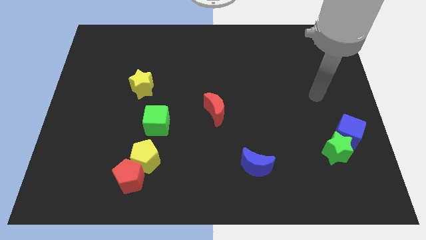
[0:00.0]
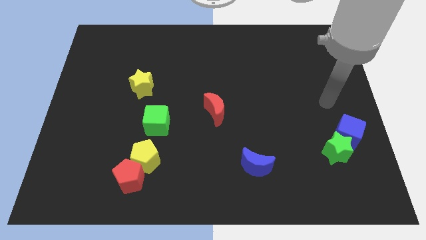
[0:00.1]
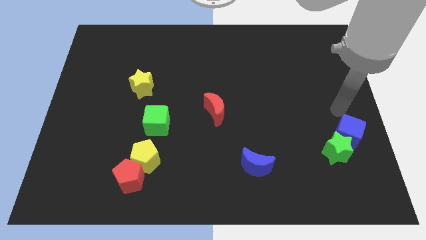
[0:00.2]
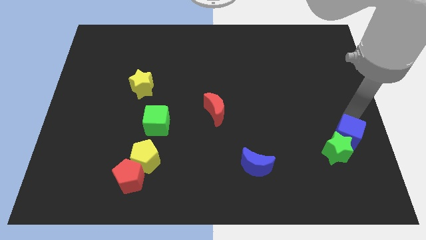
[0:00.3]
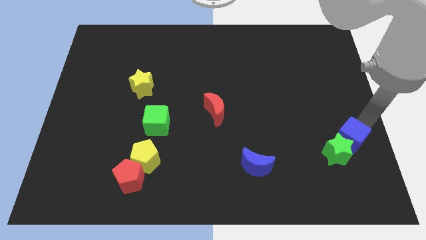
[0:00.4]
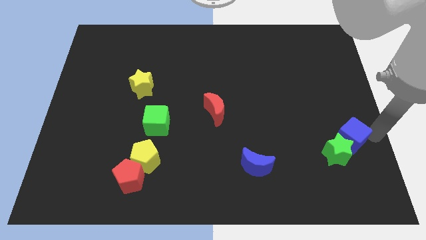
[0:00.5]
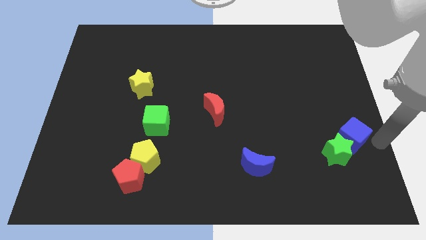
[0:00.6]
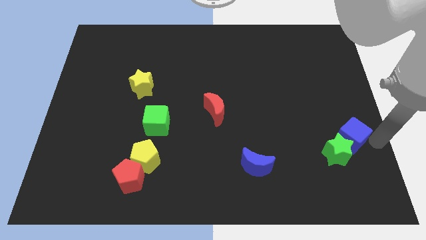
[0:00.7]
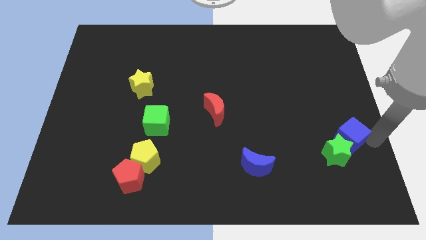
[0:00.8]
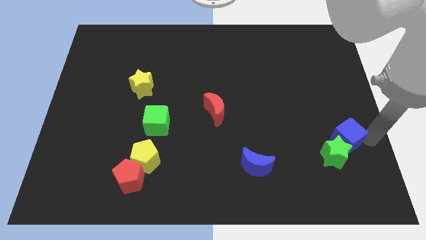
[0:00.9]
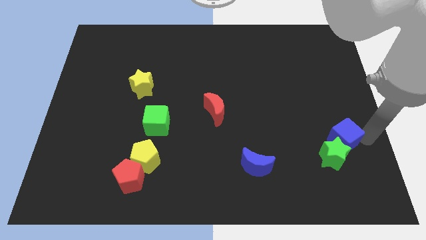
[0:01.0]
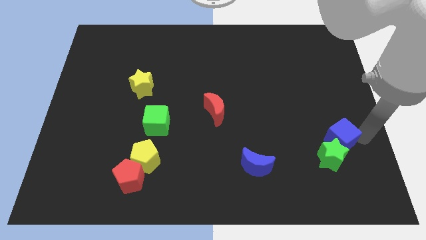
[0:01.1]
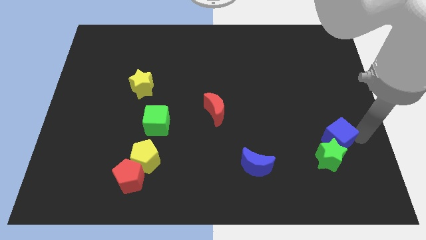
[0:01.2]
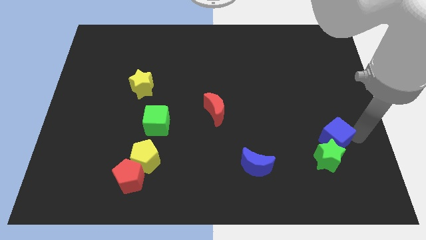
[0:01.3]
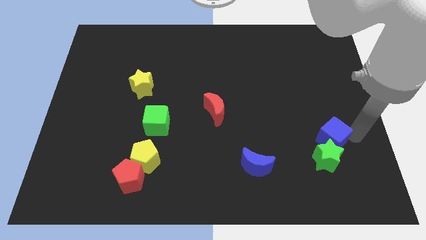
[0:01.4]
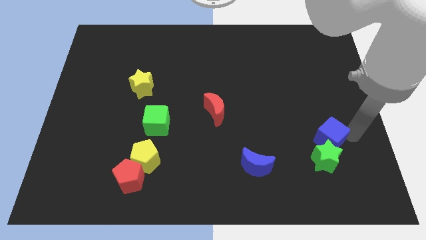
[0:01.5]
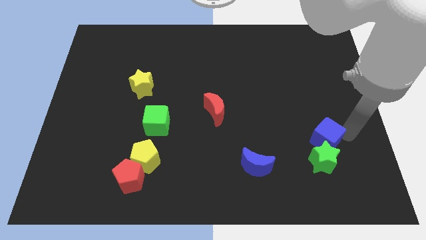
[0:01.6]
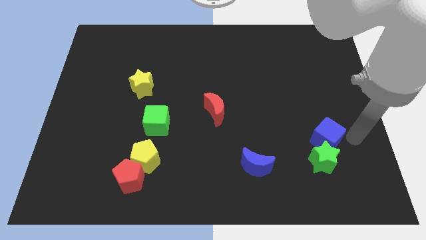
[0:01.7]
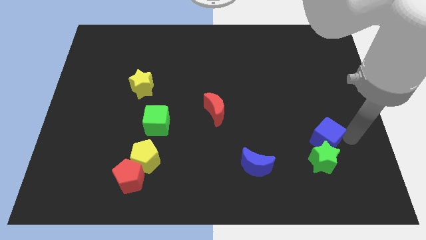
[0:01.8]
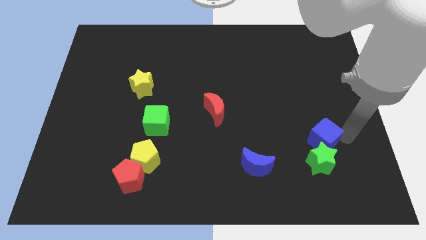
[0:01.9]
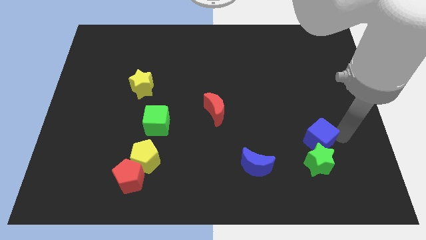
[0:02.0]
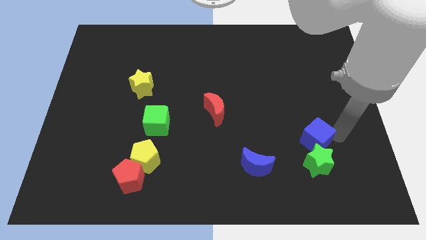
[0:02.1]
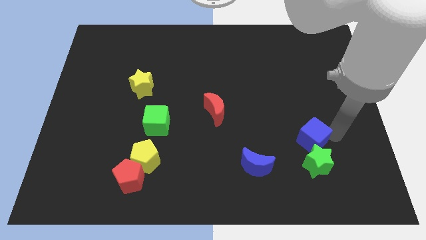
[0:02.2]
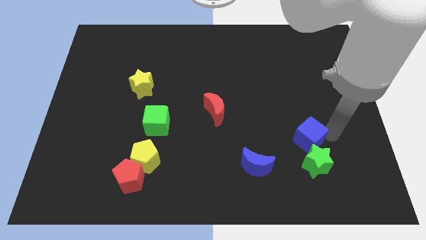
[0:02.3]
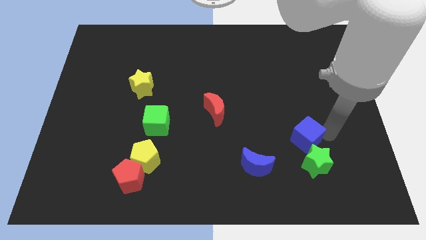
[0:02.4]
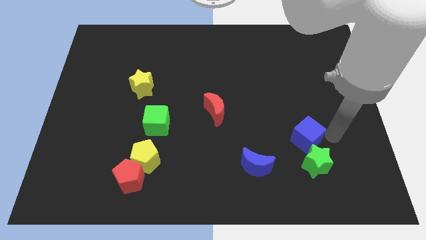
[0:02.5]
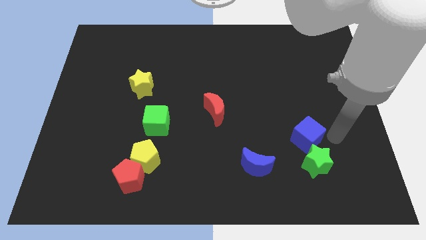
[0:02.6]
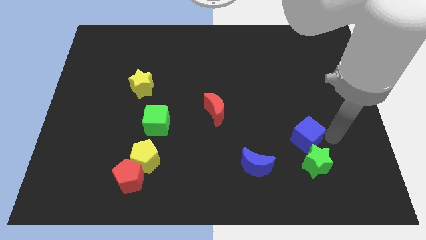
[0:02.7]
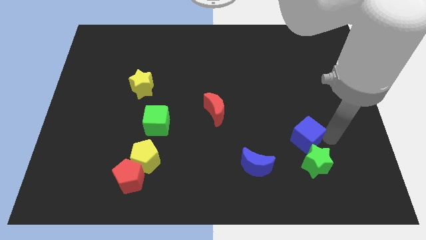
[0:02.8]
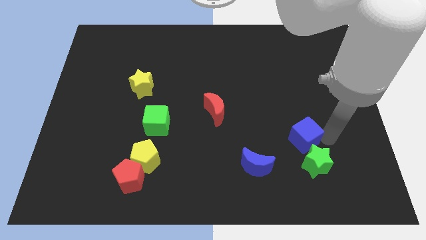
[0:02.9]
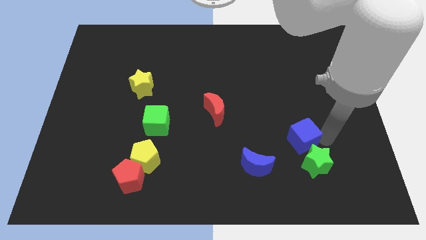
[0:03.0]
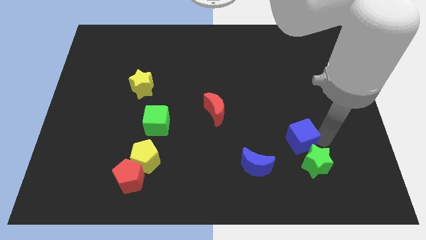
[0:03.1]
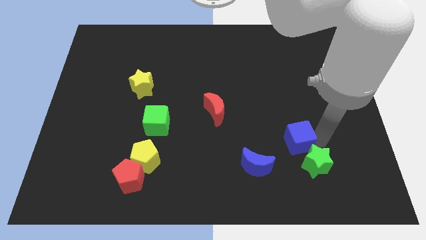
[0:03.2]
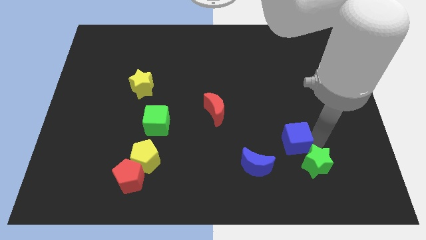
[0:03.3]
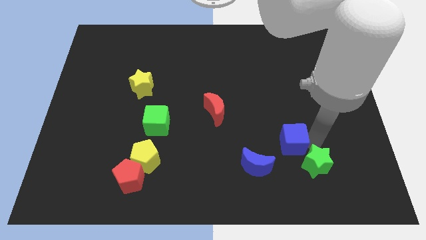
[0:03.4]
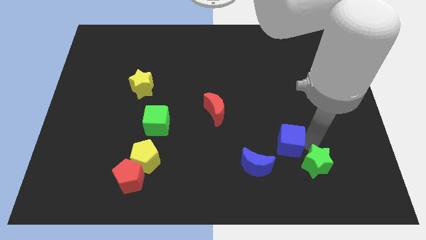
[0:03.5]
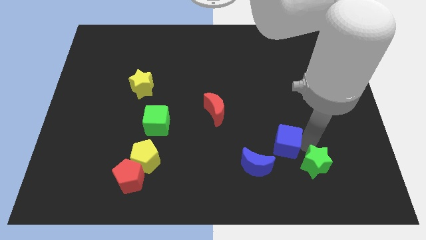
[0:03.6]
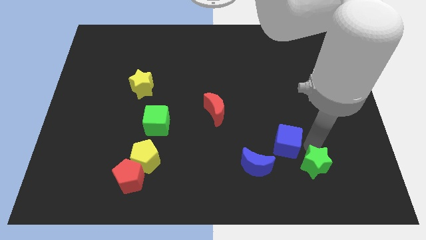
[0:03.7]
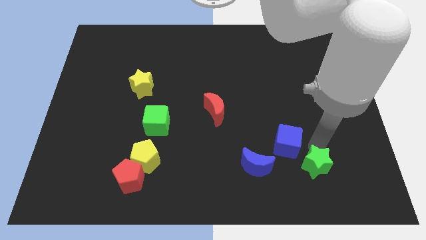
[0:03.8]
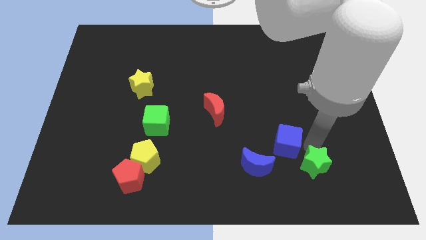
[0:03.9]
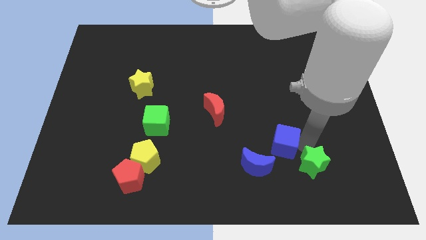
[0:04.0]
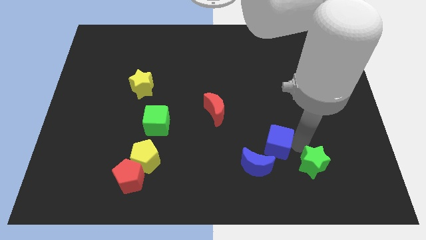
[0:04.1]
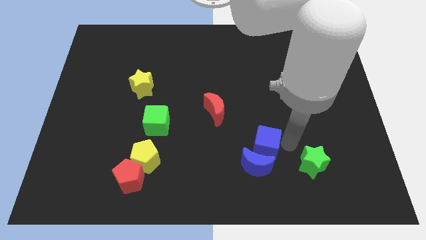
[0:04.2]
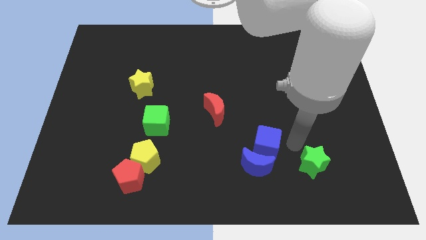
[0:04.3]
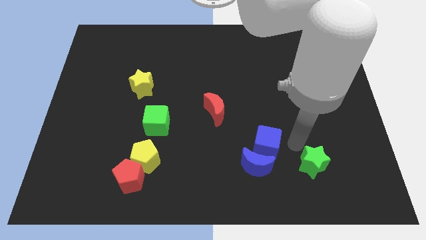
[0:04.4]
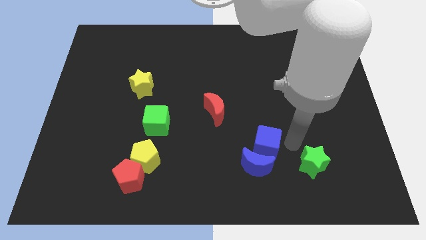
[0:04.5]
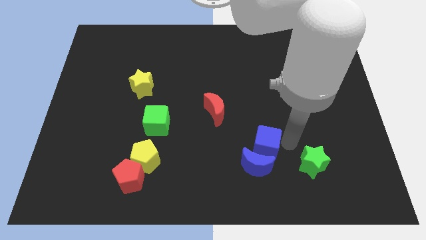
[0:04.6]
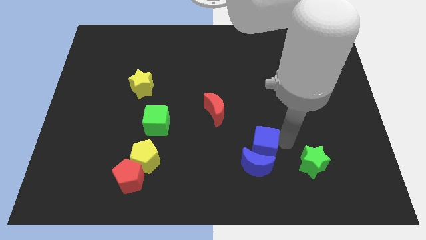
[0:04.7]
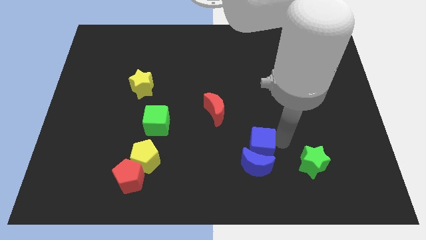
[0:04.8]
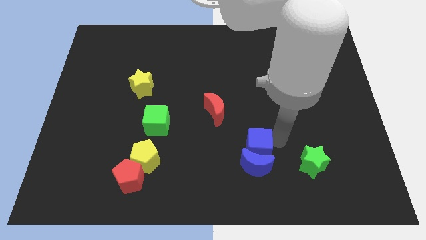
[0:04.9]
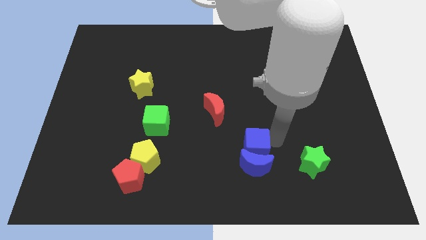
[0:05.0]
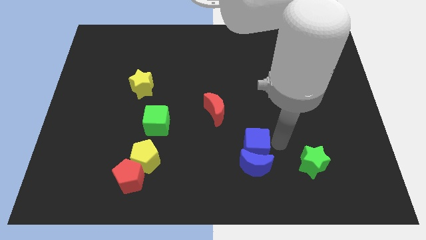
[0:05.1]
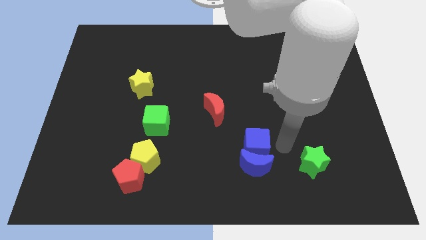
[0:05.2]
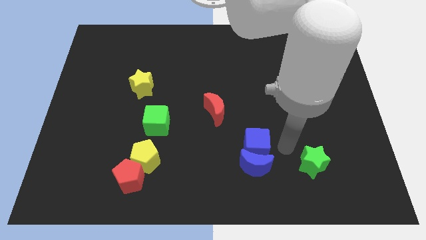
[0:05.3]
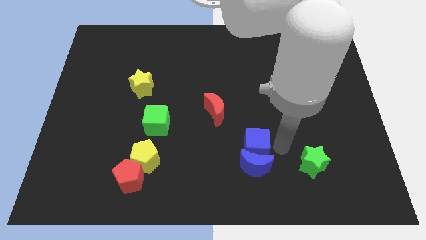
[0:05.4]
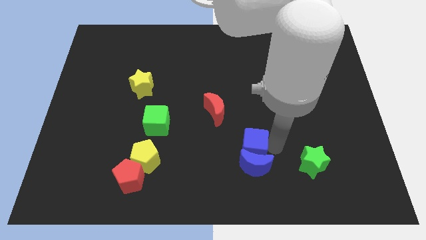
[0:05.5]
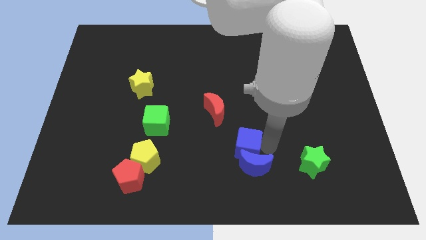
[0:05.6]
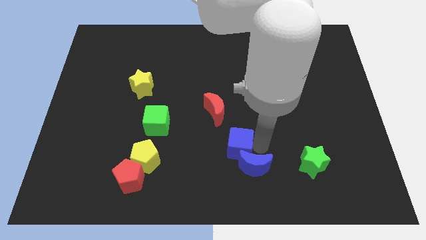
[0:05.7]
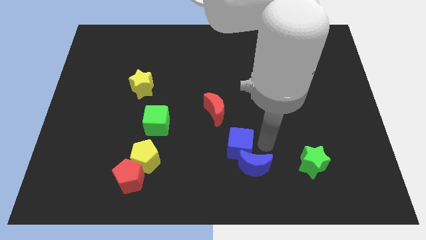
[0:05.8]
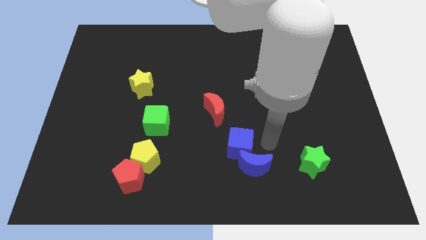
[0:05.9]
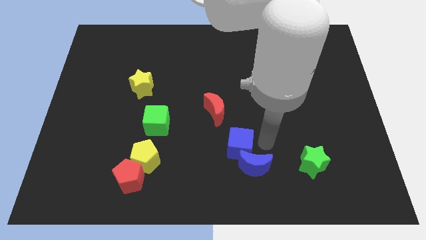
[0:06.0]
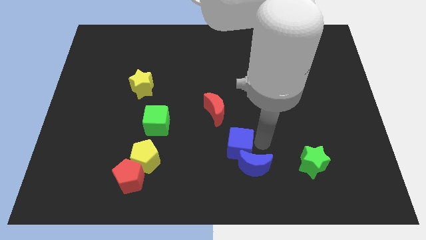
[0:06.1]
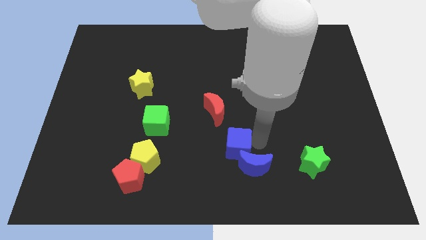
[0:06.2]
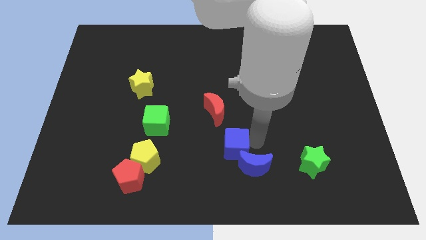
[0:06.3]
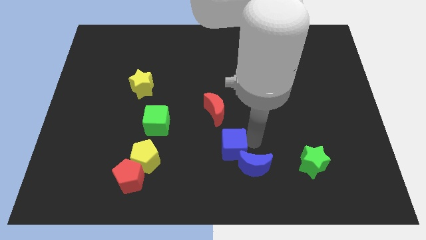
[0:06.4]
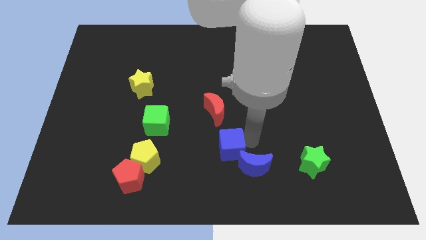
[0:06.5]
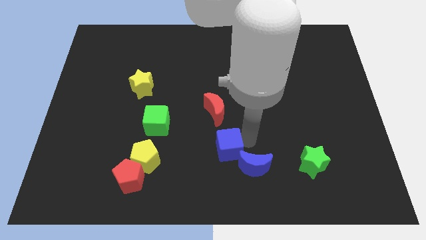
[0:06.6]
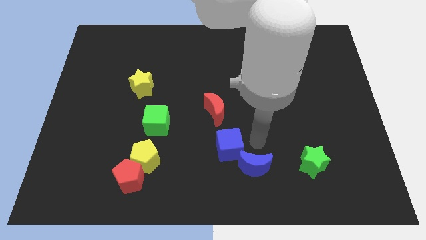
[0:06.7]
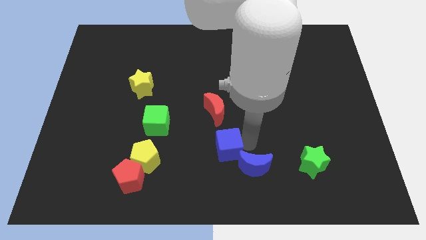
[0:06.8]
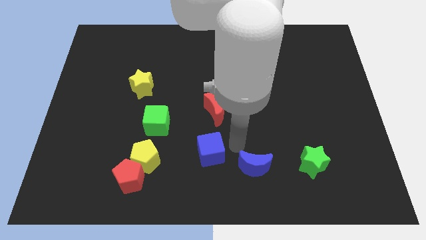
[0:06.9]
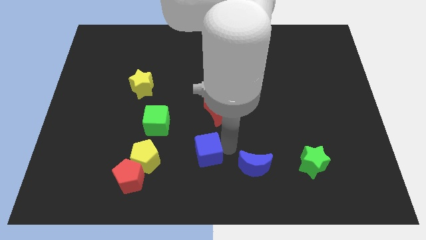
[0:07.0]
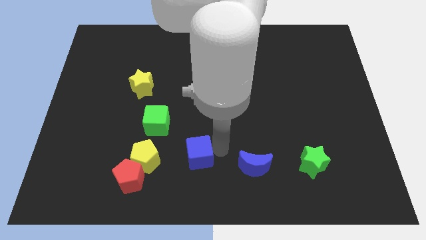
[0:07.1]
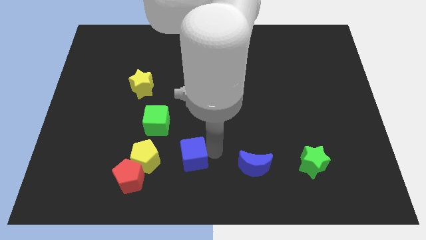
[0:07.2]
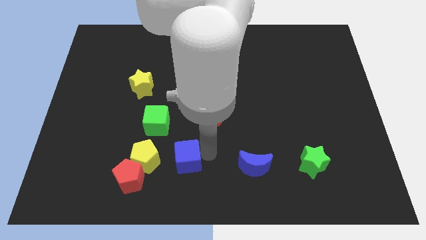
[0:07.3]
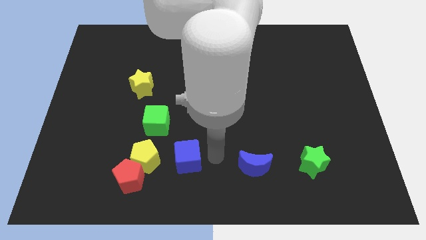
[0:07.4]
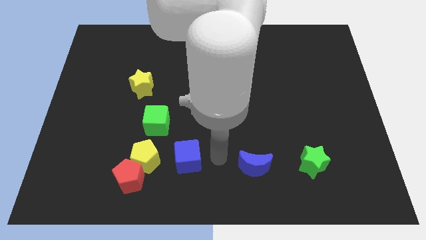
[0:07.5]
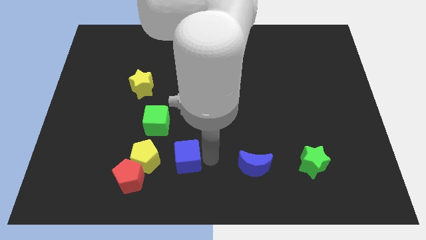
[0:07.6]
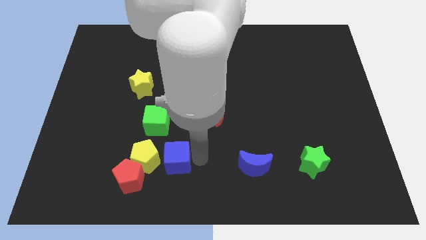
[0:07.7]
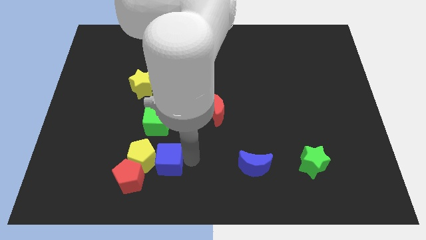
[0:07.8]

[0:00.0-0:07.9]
move the blue cube towards the yellow pentagon
